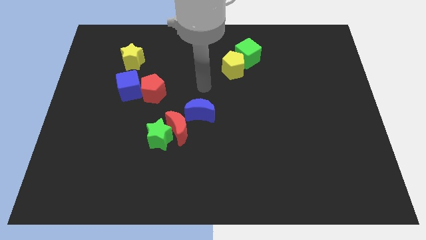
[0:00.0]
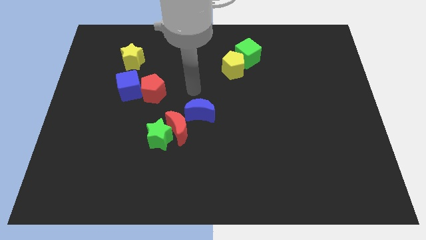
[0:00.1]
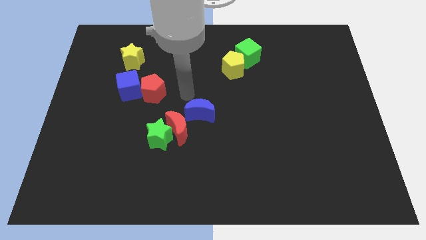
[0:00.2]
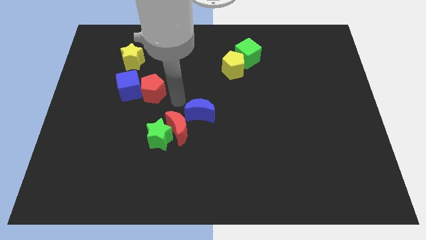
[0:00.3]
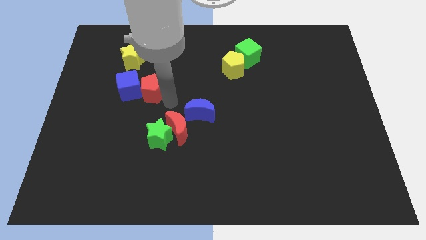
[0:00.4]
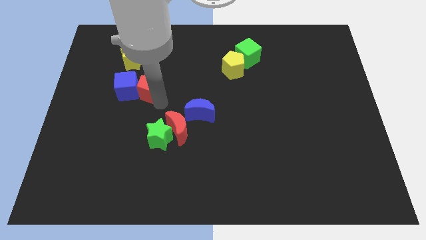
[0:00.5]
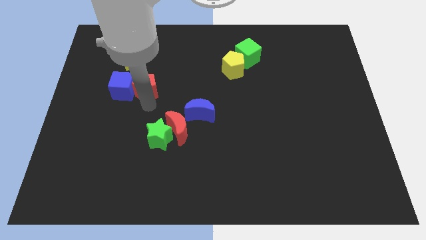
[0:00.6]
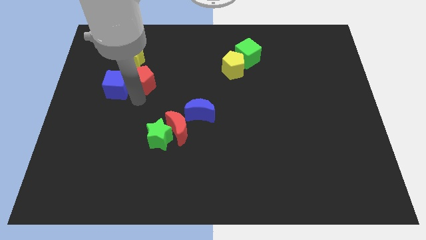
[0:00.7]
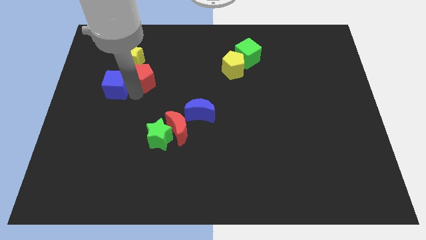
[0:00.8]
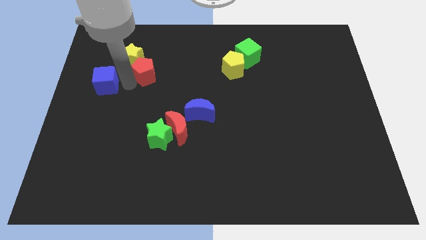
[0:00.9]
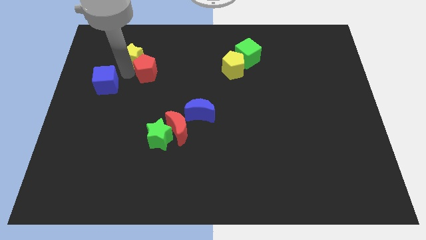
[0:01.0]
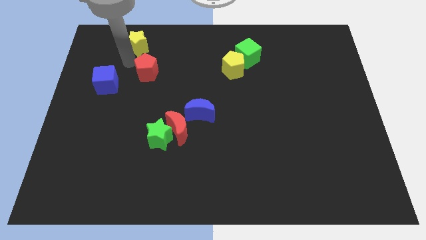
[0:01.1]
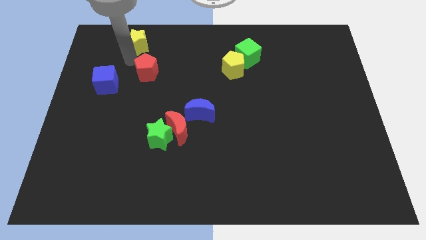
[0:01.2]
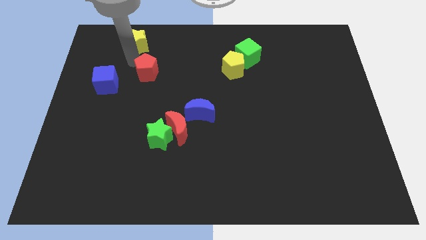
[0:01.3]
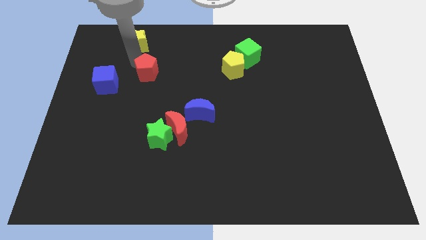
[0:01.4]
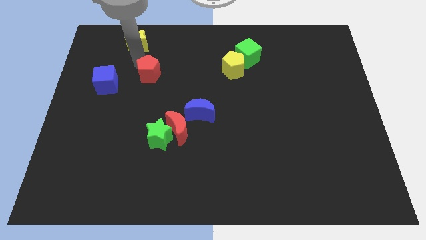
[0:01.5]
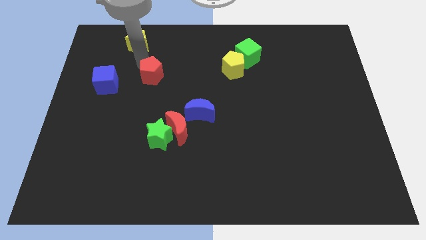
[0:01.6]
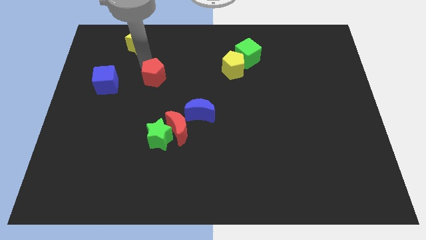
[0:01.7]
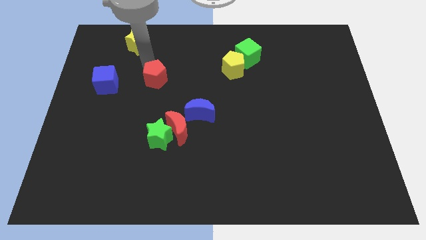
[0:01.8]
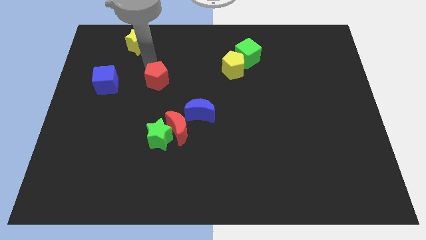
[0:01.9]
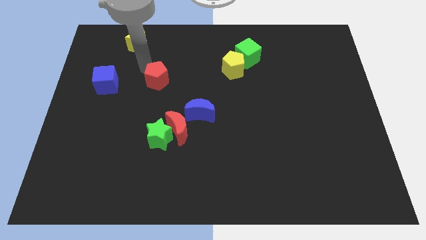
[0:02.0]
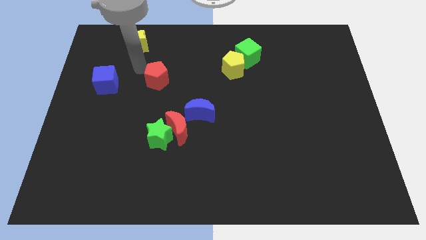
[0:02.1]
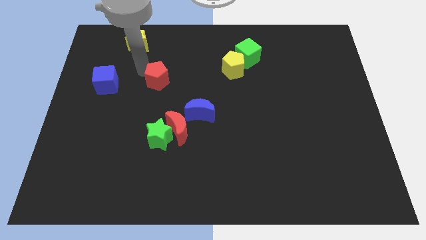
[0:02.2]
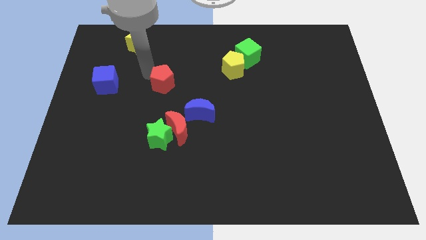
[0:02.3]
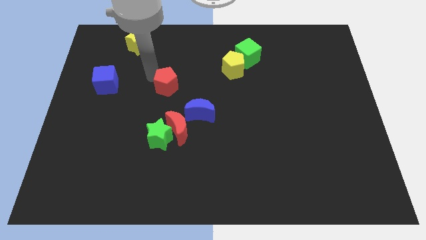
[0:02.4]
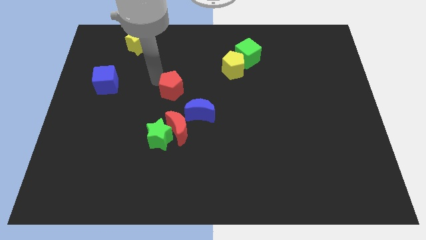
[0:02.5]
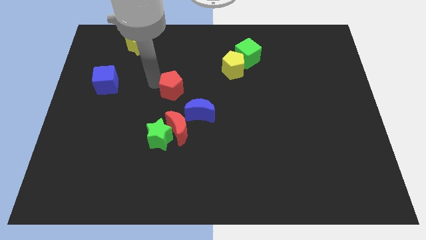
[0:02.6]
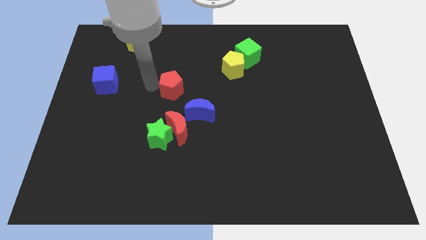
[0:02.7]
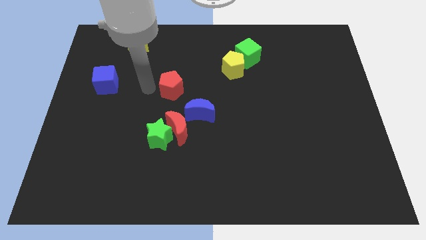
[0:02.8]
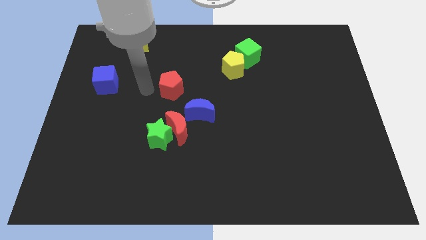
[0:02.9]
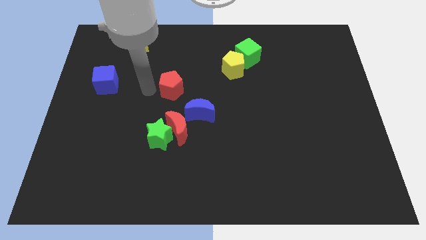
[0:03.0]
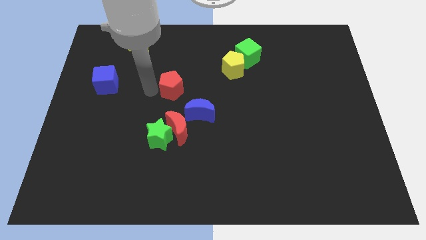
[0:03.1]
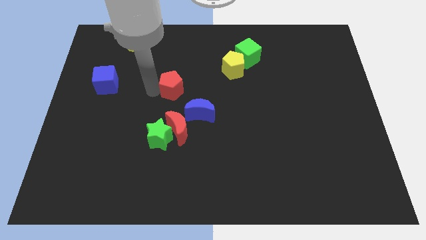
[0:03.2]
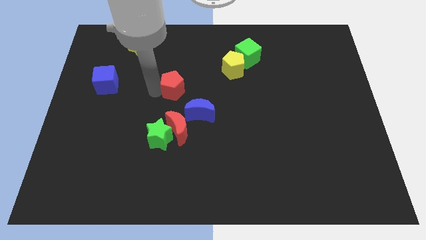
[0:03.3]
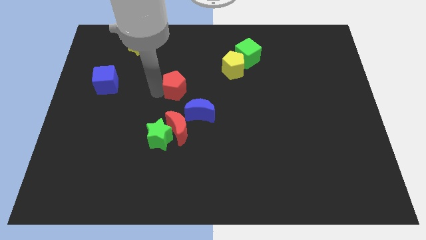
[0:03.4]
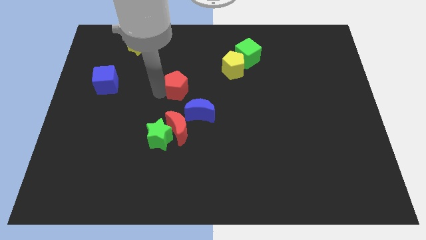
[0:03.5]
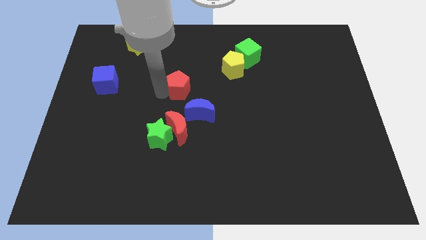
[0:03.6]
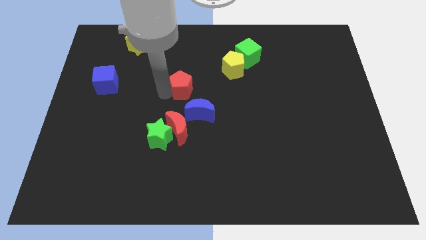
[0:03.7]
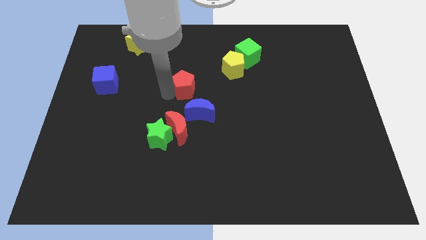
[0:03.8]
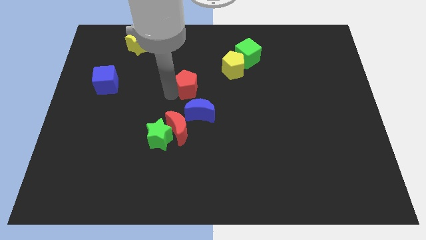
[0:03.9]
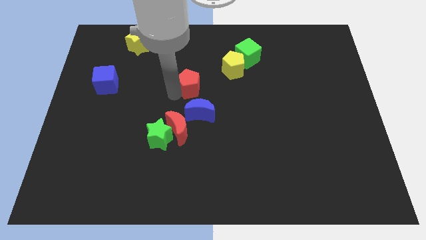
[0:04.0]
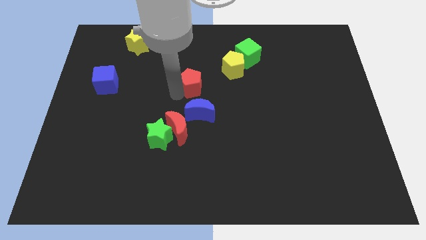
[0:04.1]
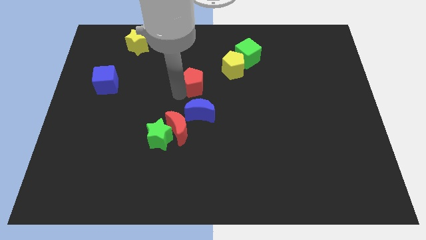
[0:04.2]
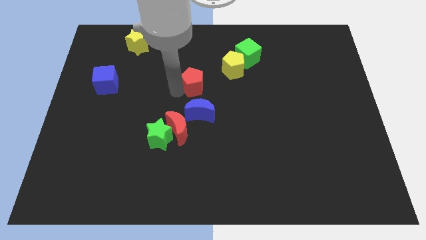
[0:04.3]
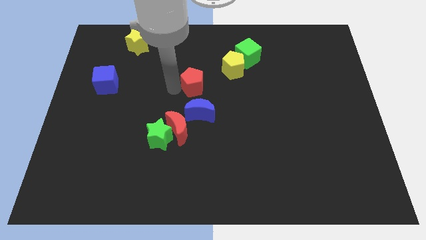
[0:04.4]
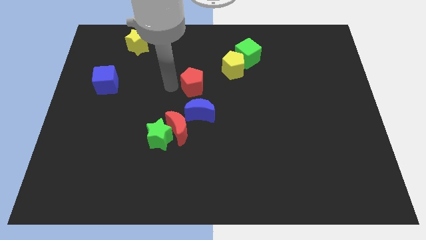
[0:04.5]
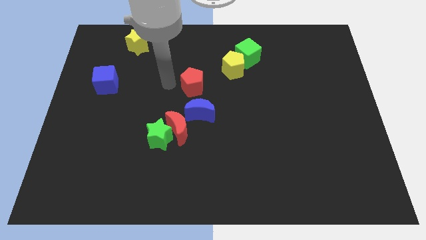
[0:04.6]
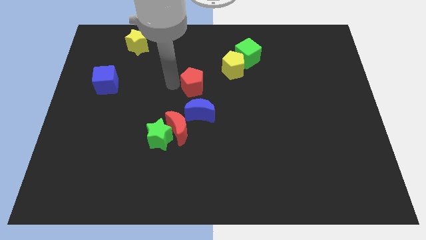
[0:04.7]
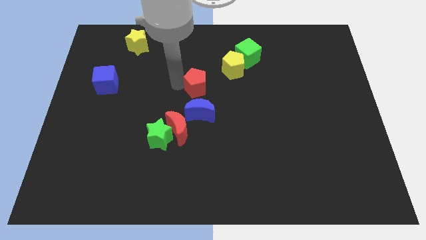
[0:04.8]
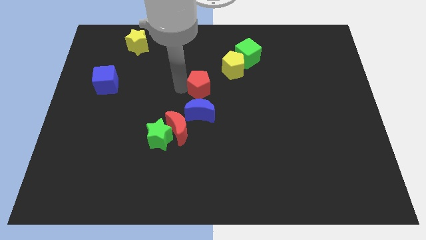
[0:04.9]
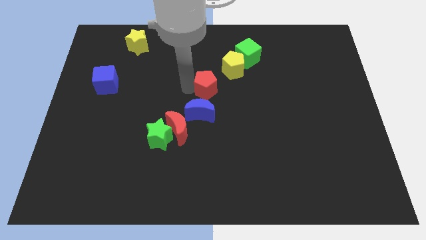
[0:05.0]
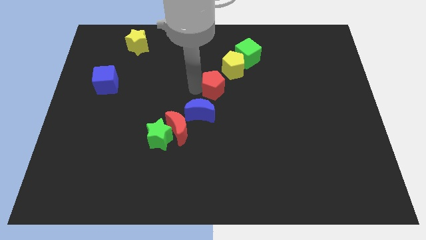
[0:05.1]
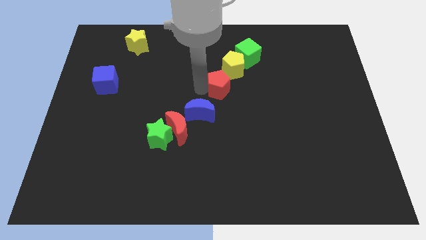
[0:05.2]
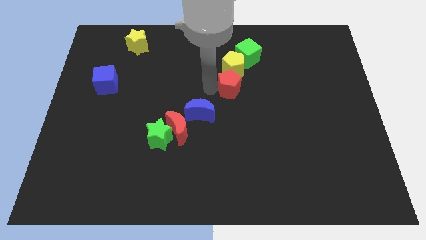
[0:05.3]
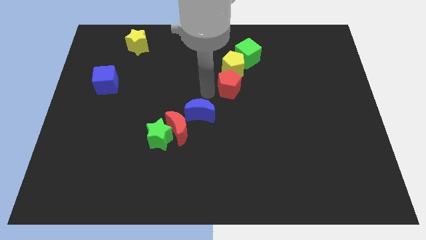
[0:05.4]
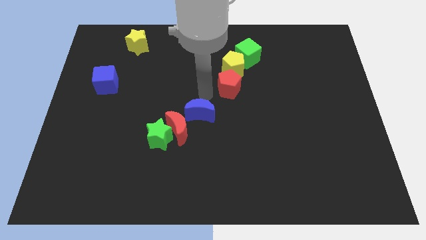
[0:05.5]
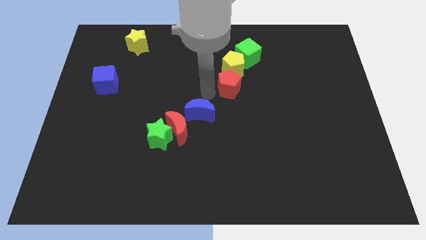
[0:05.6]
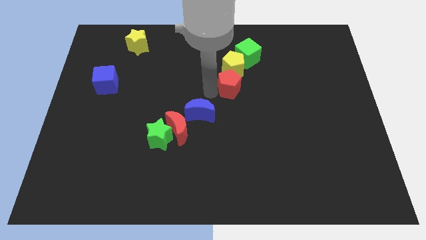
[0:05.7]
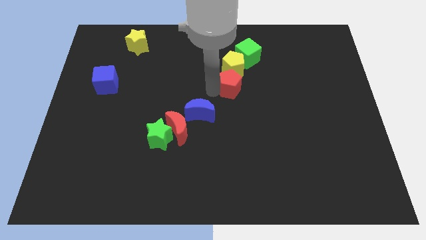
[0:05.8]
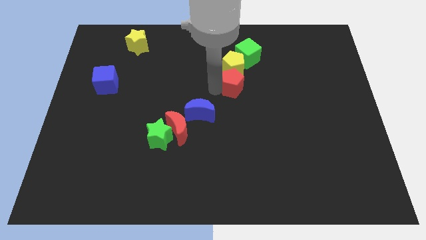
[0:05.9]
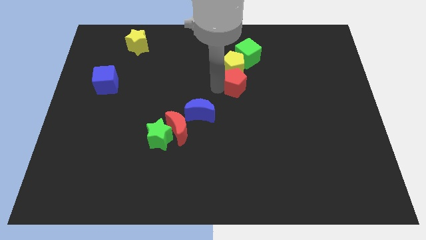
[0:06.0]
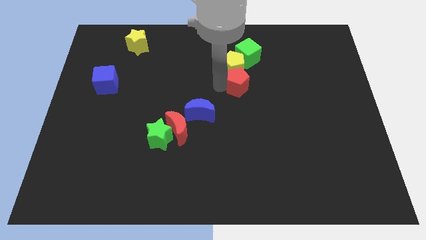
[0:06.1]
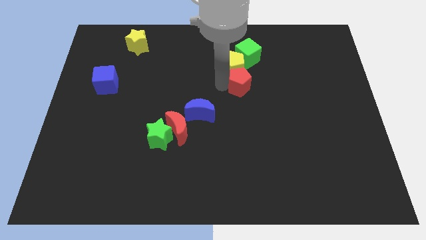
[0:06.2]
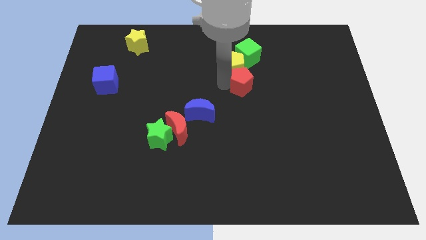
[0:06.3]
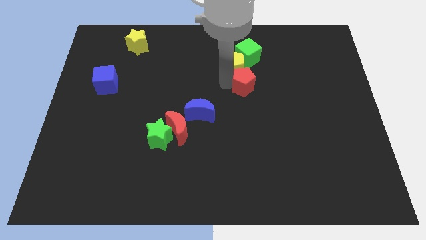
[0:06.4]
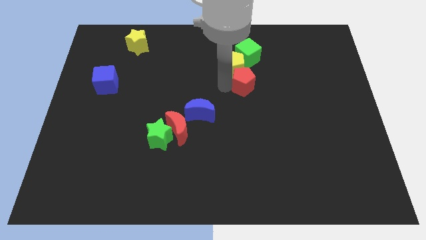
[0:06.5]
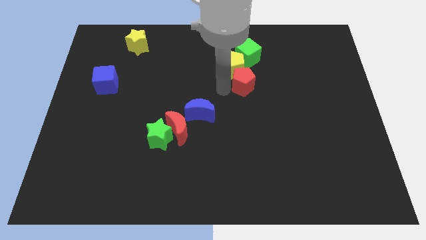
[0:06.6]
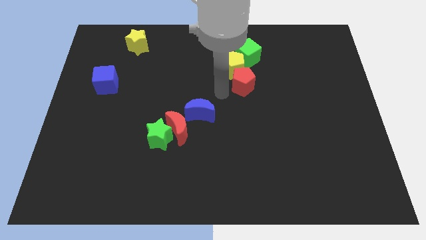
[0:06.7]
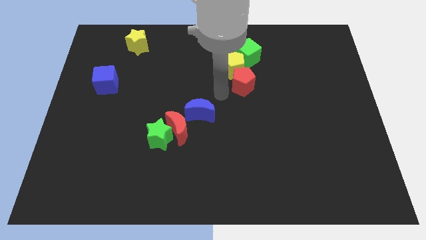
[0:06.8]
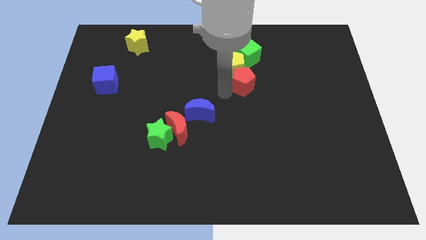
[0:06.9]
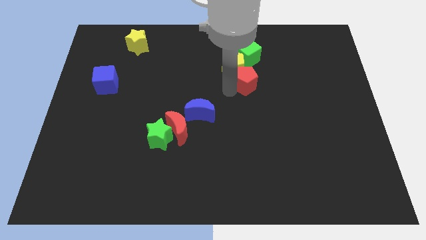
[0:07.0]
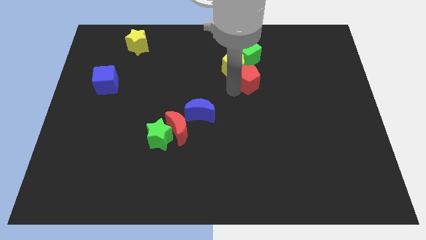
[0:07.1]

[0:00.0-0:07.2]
push the red pentagon to the right side of the yellow pentagon

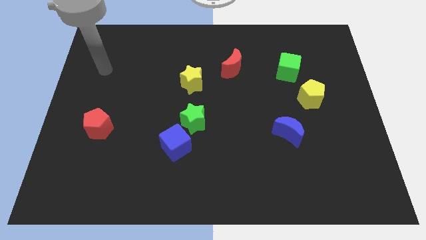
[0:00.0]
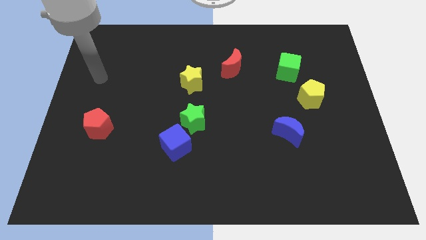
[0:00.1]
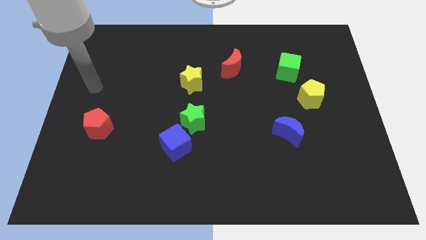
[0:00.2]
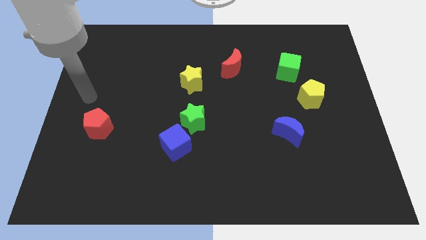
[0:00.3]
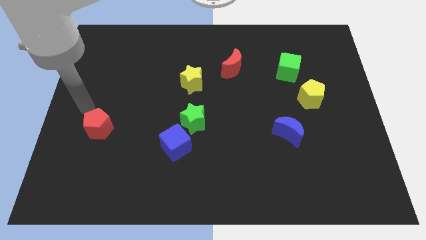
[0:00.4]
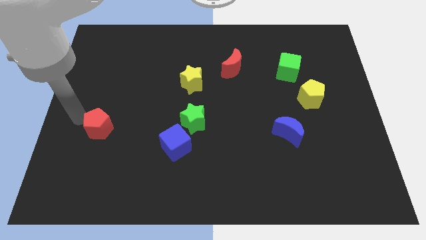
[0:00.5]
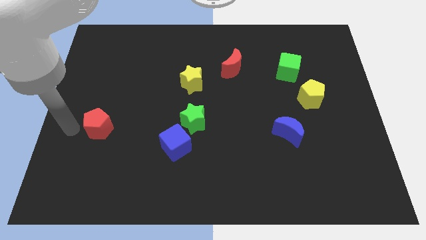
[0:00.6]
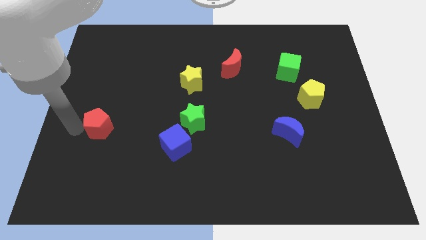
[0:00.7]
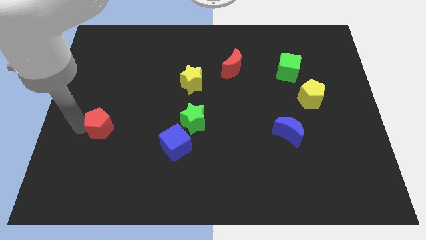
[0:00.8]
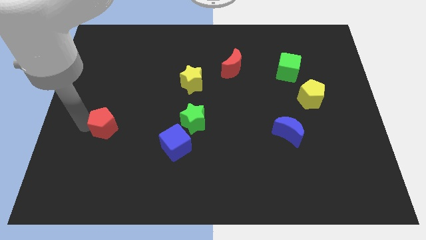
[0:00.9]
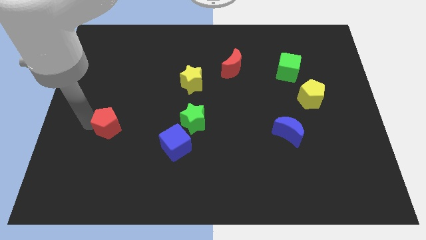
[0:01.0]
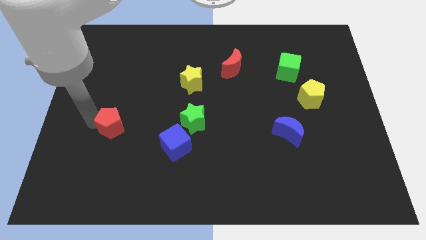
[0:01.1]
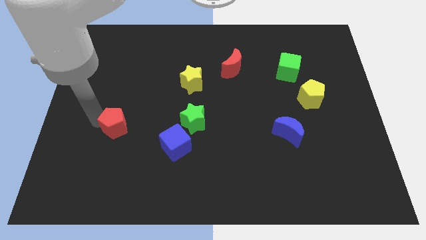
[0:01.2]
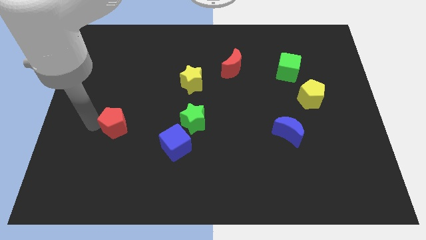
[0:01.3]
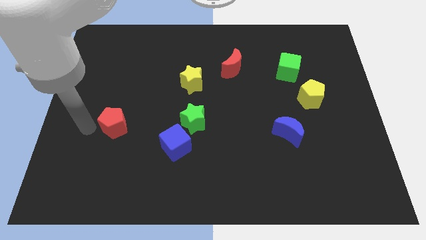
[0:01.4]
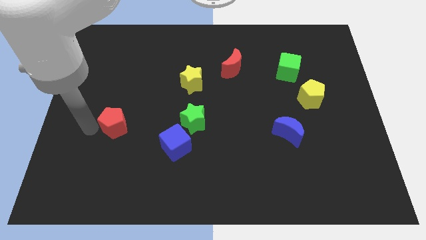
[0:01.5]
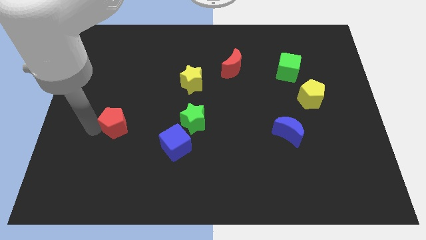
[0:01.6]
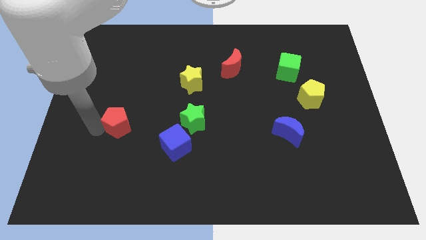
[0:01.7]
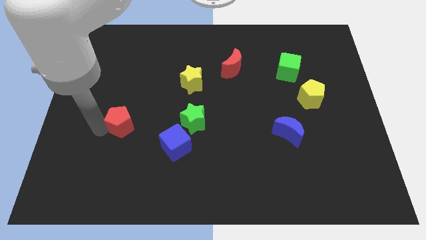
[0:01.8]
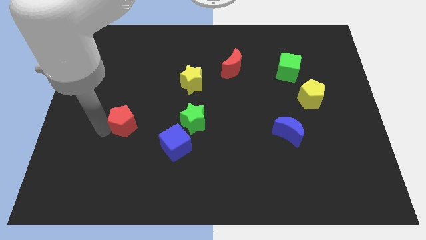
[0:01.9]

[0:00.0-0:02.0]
push the red pentagon to the left side of the green star
